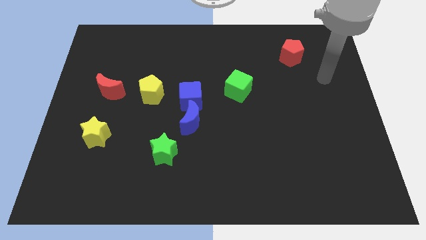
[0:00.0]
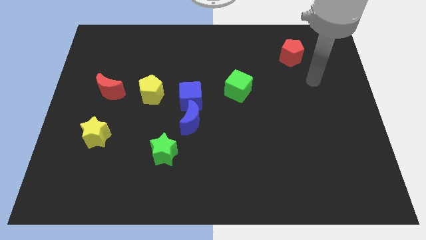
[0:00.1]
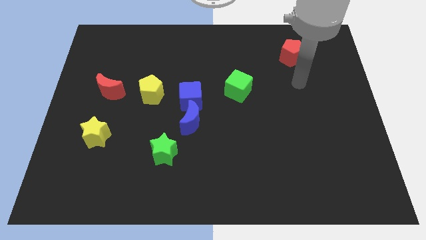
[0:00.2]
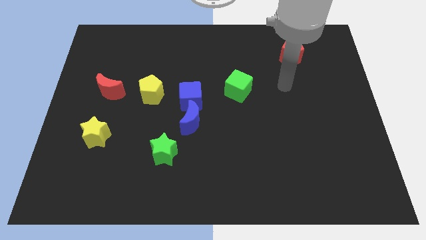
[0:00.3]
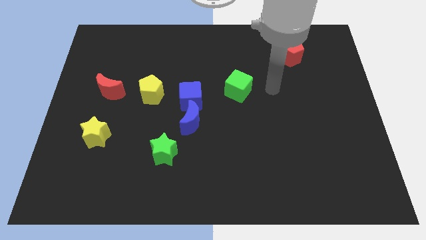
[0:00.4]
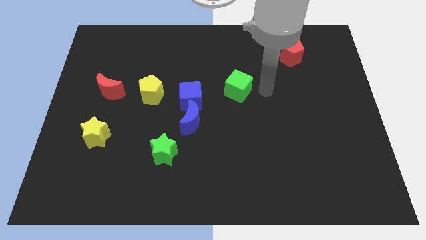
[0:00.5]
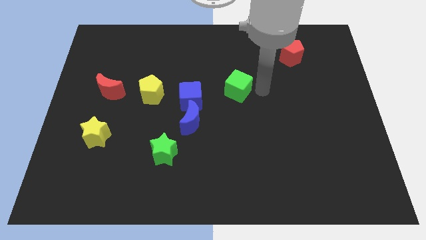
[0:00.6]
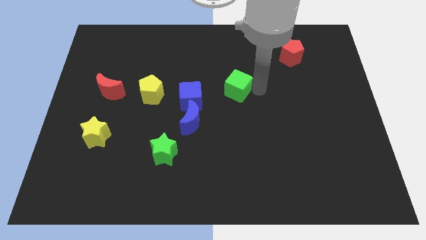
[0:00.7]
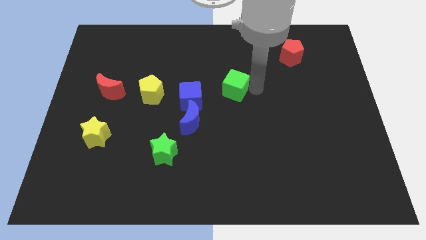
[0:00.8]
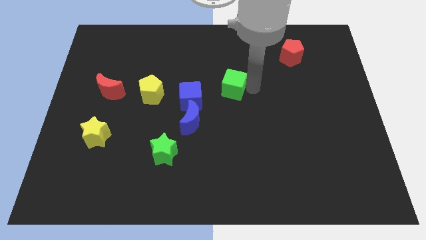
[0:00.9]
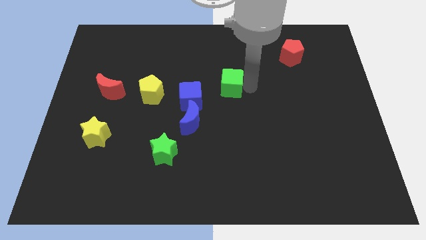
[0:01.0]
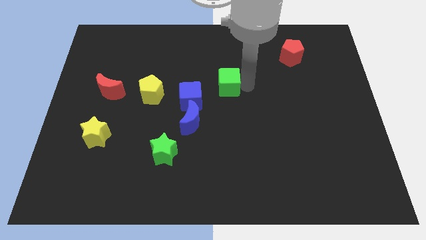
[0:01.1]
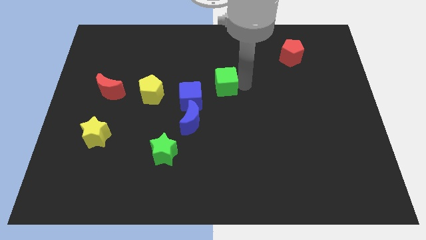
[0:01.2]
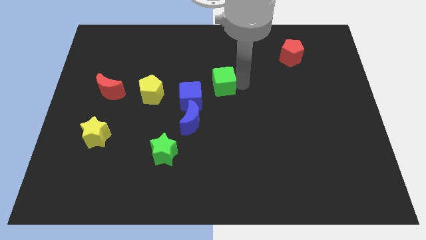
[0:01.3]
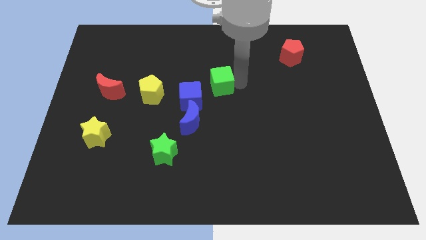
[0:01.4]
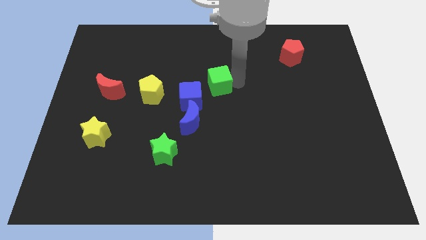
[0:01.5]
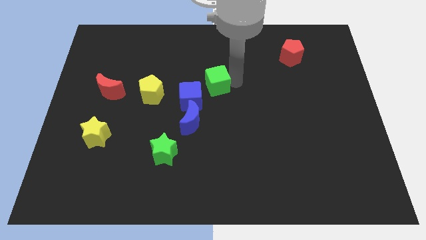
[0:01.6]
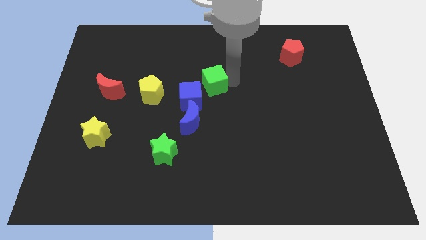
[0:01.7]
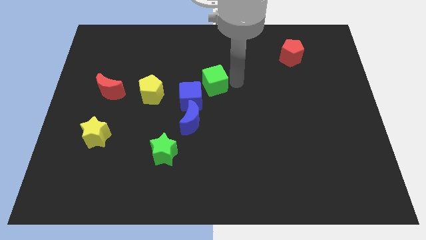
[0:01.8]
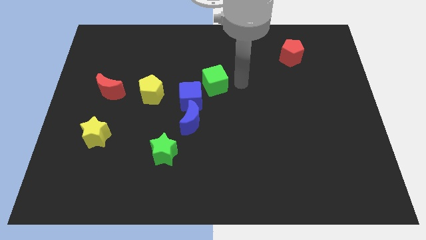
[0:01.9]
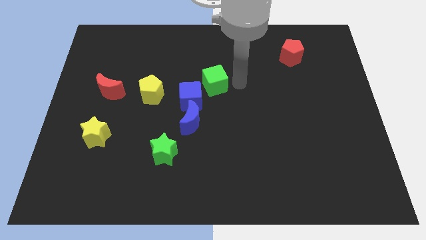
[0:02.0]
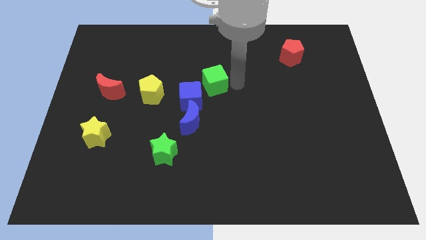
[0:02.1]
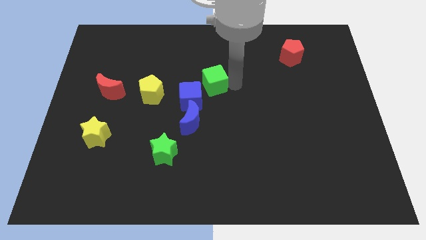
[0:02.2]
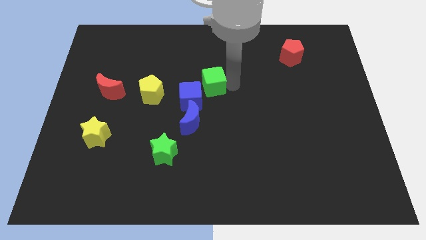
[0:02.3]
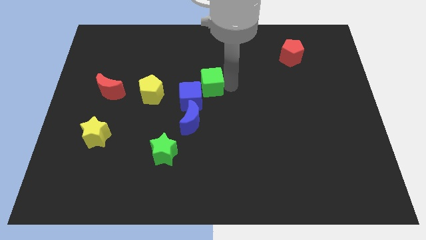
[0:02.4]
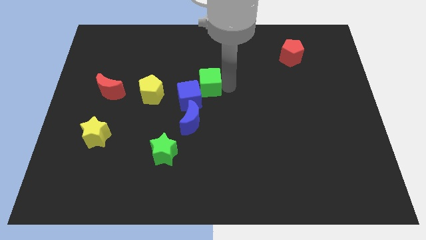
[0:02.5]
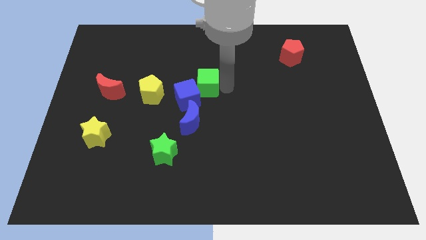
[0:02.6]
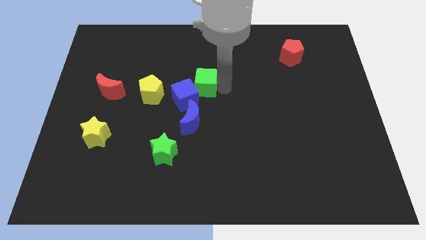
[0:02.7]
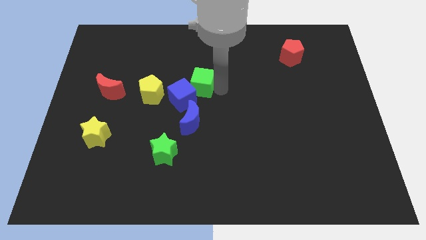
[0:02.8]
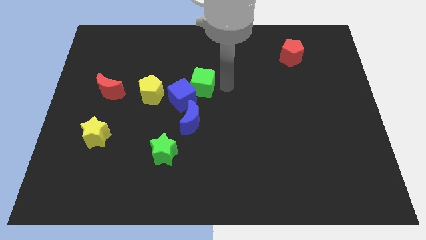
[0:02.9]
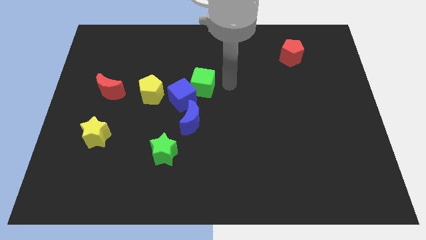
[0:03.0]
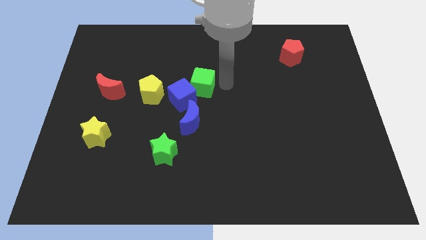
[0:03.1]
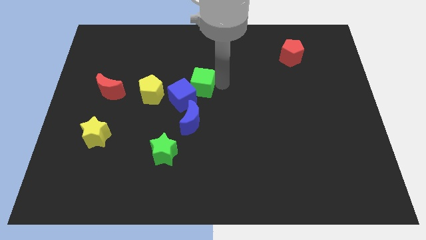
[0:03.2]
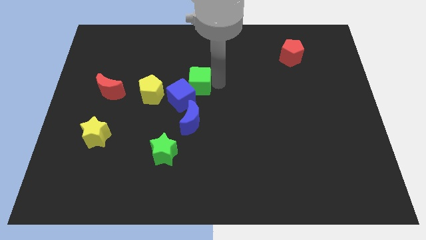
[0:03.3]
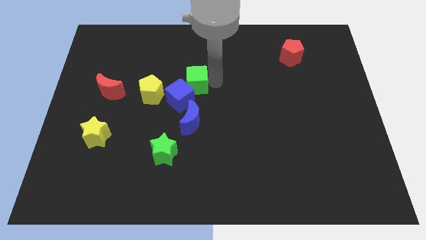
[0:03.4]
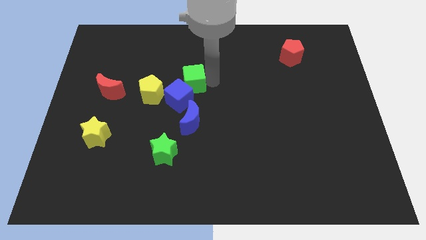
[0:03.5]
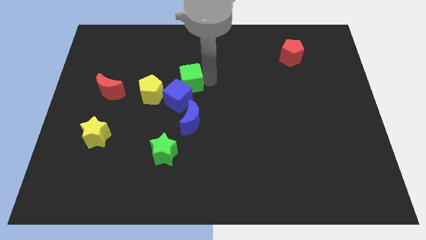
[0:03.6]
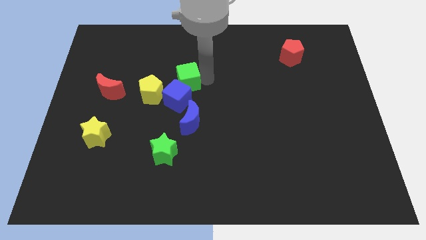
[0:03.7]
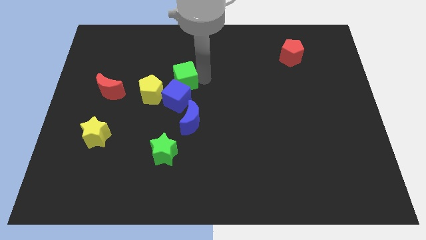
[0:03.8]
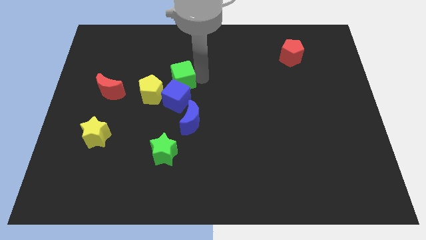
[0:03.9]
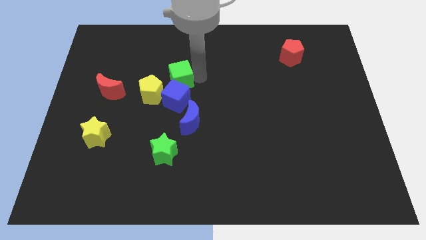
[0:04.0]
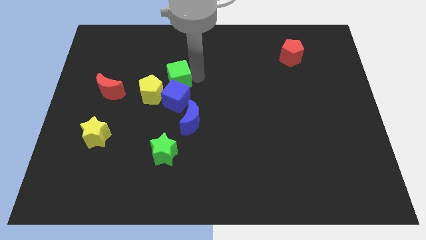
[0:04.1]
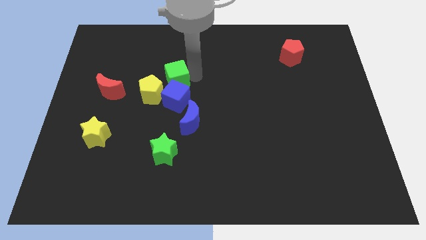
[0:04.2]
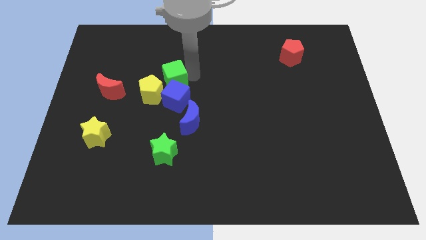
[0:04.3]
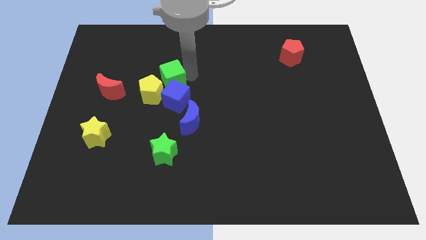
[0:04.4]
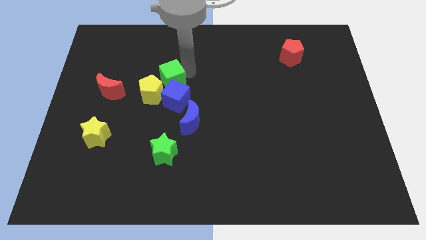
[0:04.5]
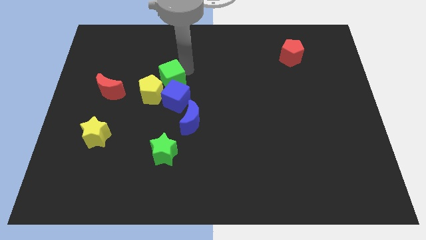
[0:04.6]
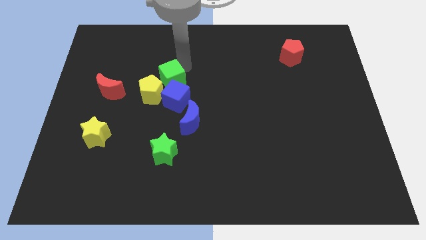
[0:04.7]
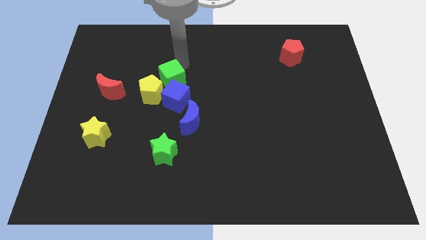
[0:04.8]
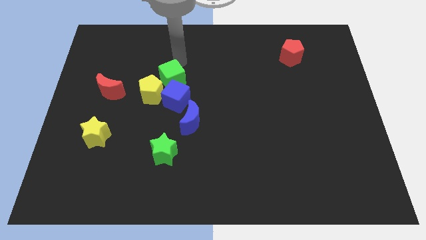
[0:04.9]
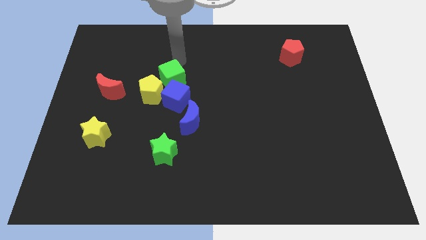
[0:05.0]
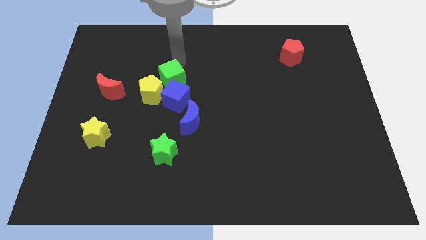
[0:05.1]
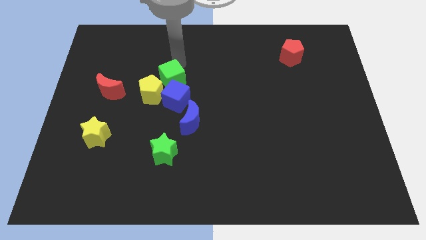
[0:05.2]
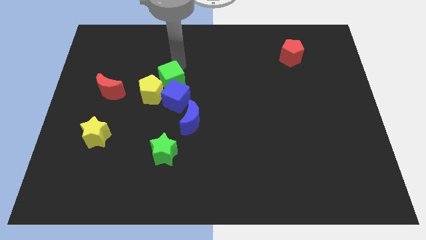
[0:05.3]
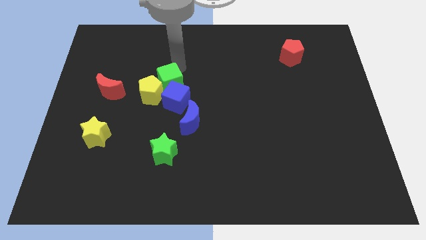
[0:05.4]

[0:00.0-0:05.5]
put the green cube close to the yellow pentagon
